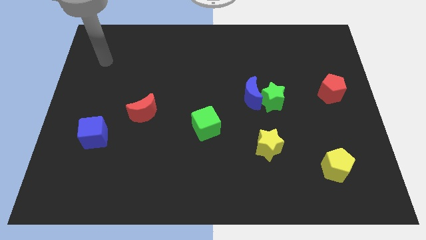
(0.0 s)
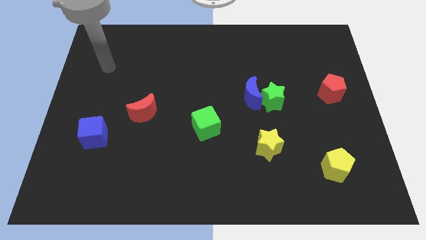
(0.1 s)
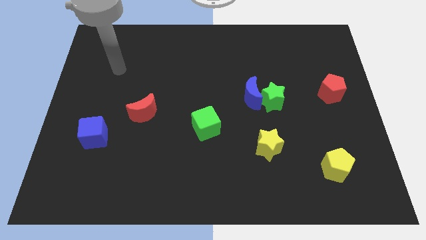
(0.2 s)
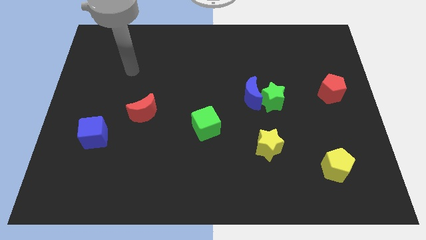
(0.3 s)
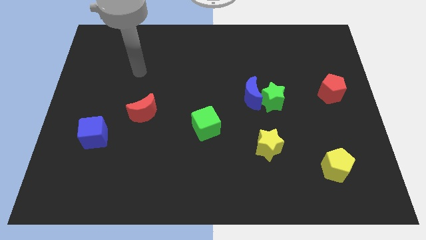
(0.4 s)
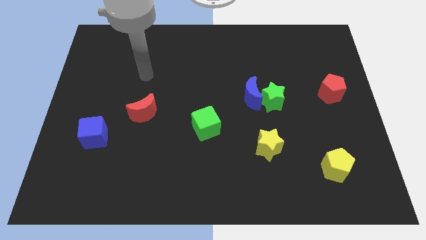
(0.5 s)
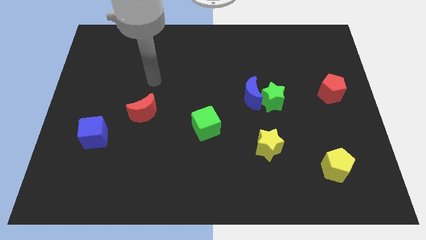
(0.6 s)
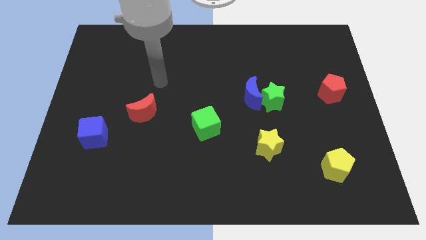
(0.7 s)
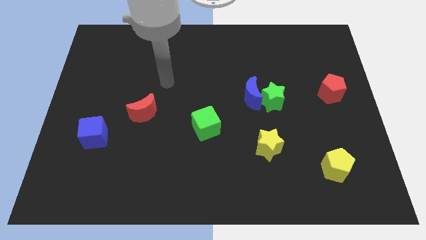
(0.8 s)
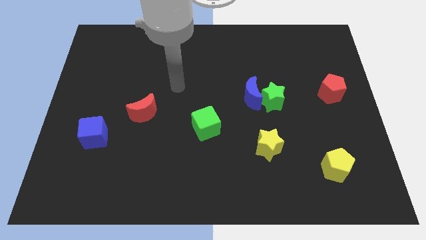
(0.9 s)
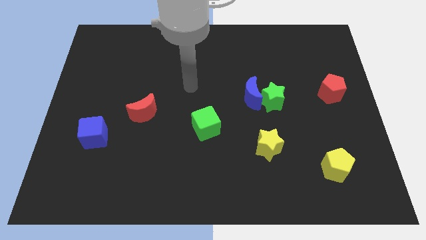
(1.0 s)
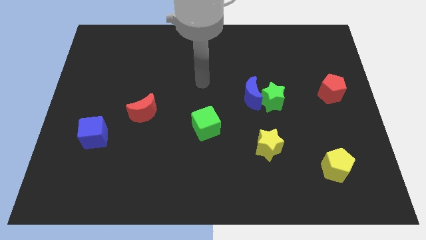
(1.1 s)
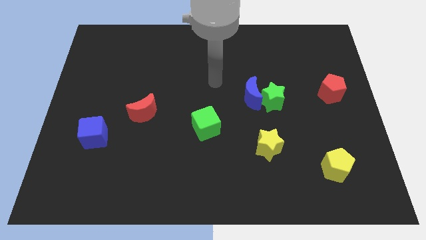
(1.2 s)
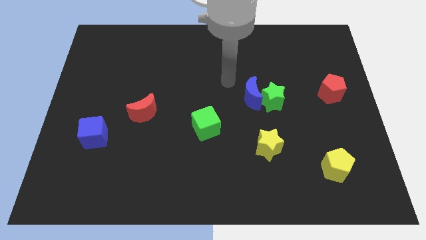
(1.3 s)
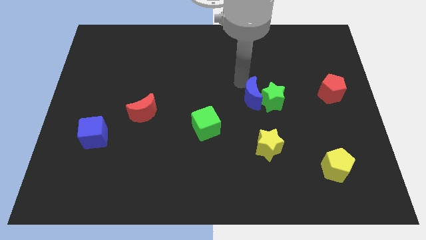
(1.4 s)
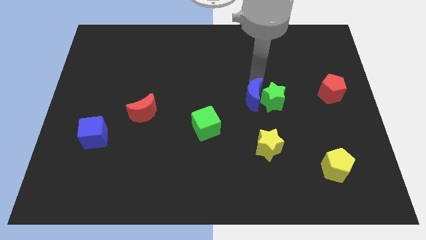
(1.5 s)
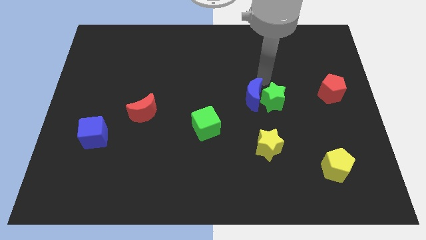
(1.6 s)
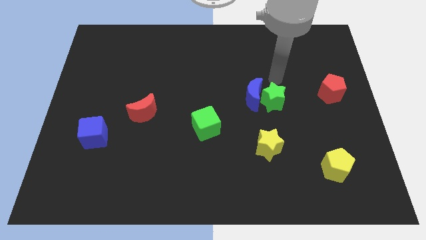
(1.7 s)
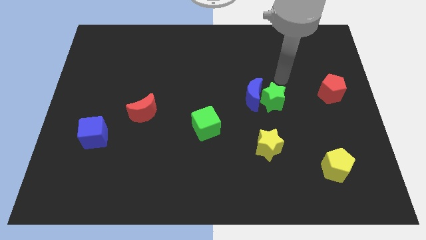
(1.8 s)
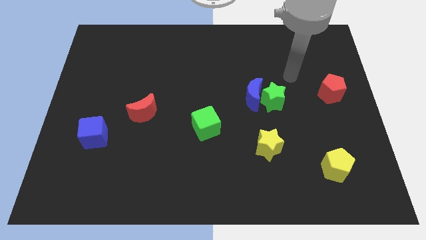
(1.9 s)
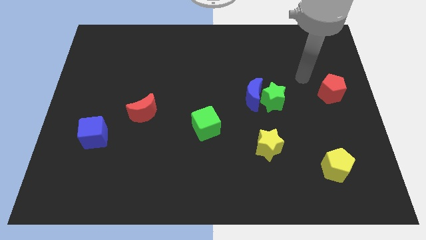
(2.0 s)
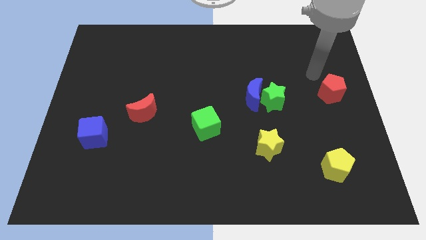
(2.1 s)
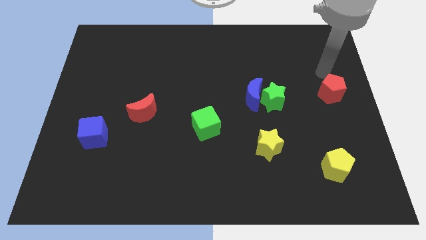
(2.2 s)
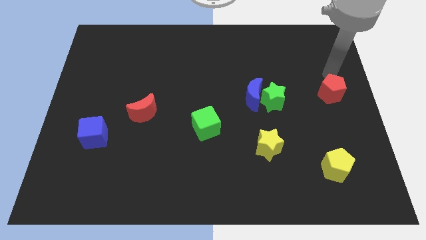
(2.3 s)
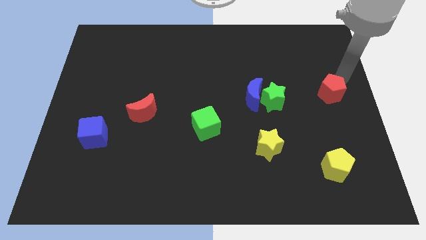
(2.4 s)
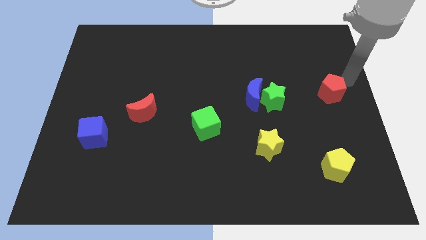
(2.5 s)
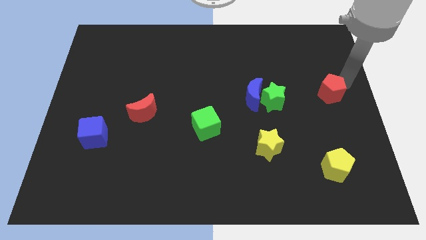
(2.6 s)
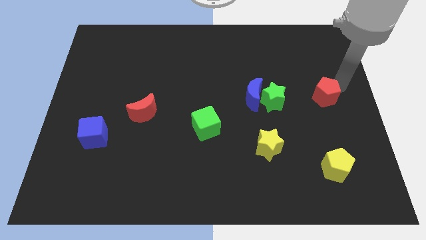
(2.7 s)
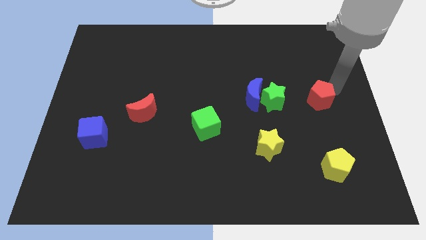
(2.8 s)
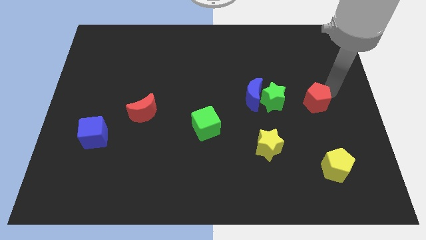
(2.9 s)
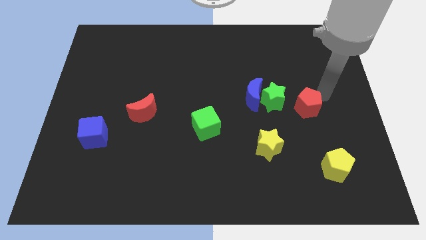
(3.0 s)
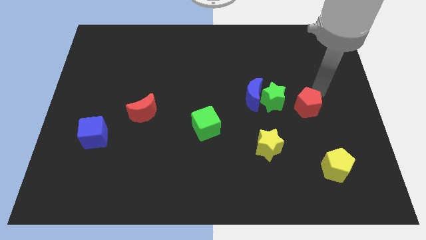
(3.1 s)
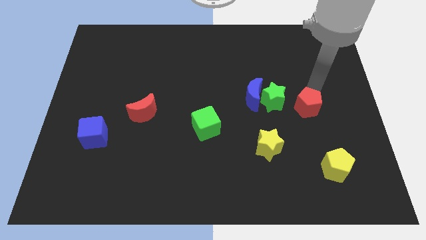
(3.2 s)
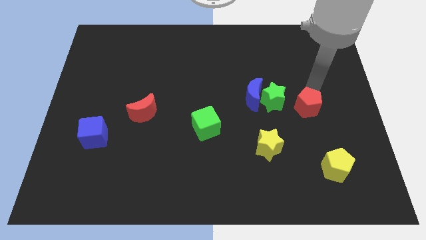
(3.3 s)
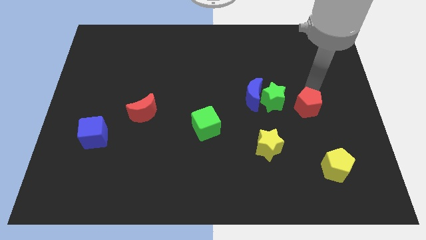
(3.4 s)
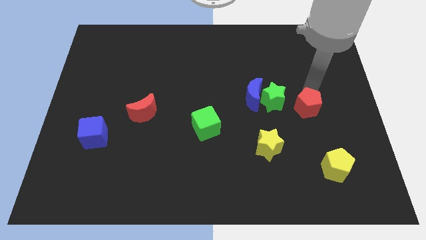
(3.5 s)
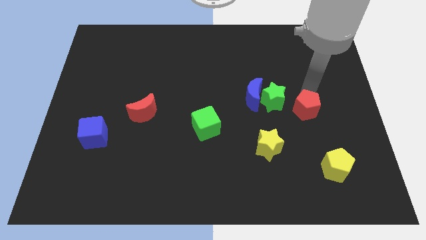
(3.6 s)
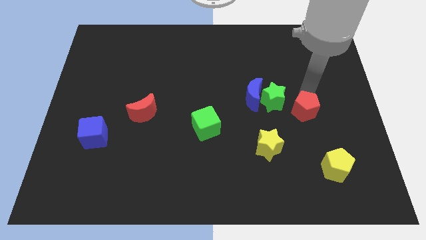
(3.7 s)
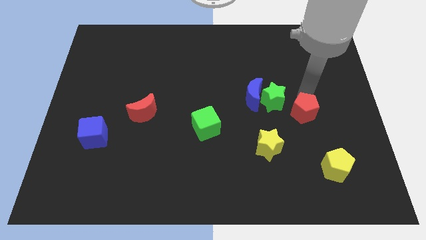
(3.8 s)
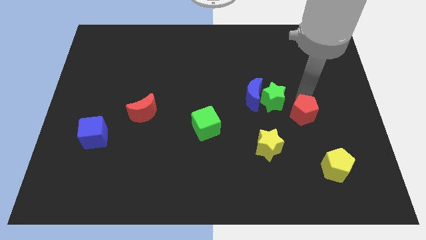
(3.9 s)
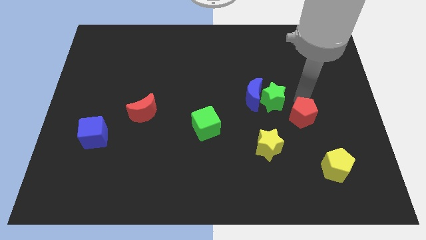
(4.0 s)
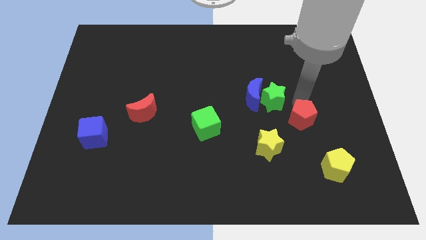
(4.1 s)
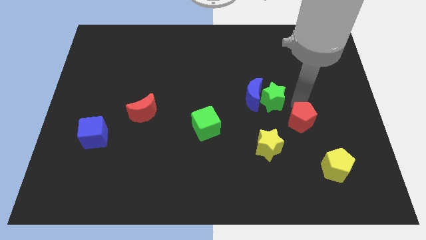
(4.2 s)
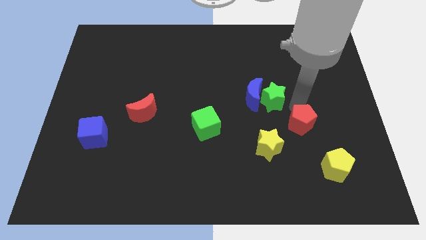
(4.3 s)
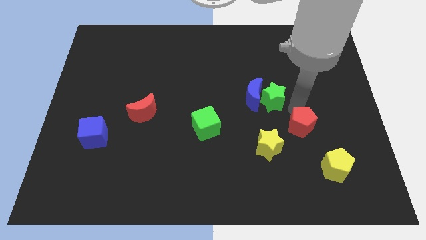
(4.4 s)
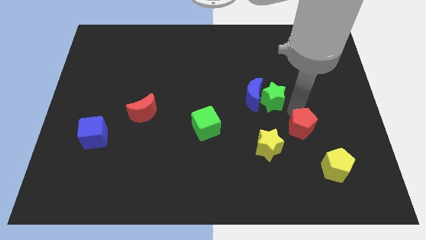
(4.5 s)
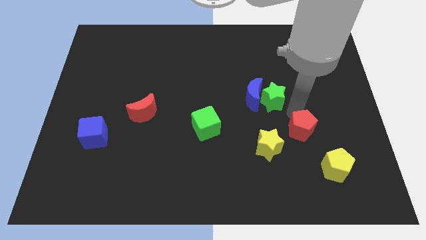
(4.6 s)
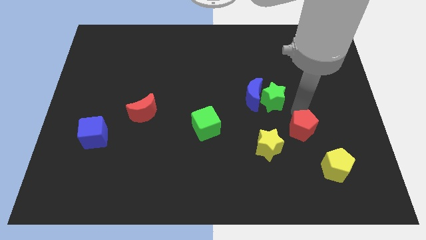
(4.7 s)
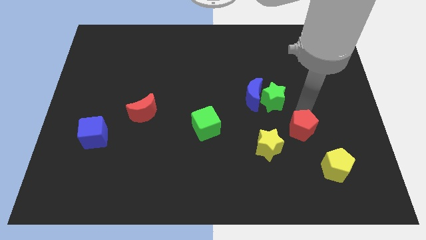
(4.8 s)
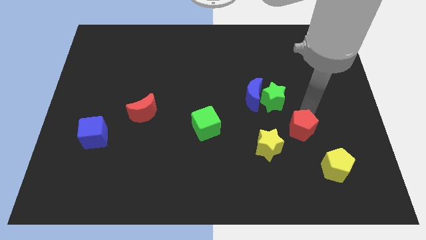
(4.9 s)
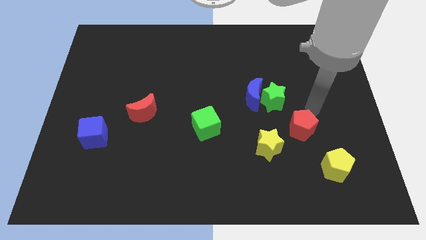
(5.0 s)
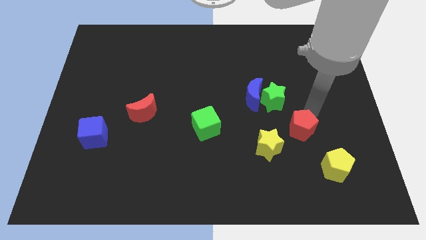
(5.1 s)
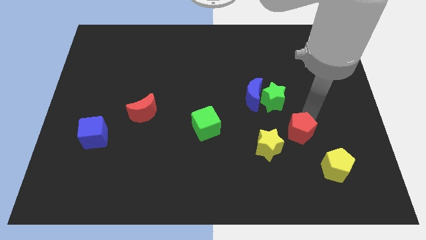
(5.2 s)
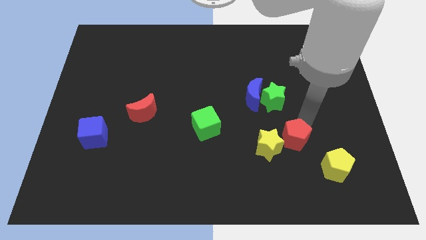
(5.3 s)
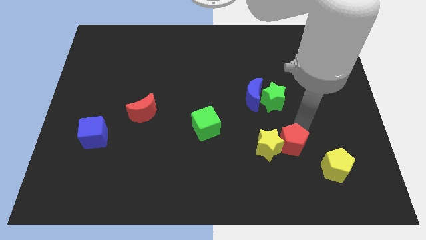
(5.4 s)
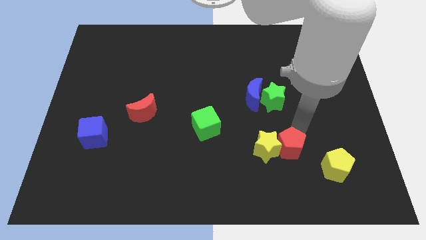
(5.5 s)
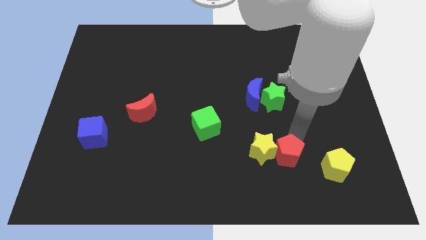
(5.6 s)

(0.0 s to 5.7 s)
move the red pentagon down and then left

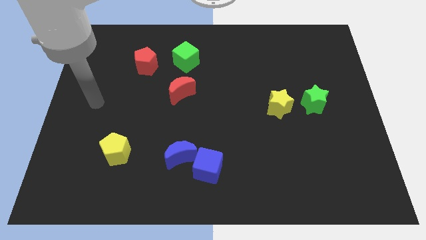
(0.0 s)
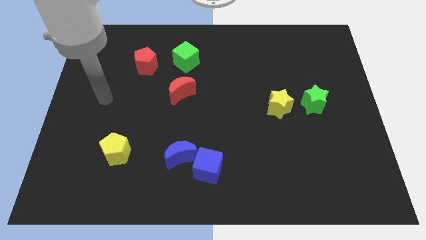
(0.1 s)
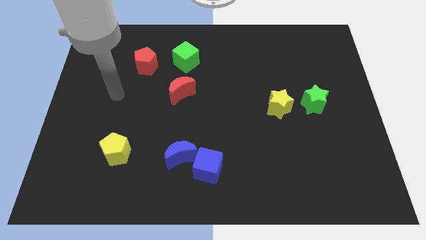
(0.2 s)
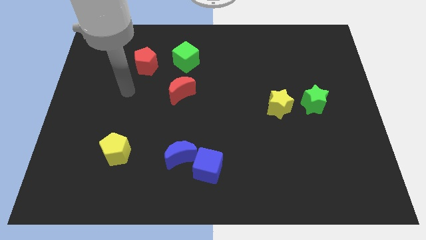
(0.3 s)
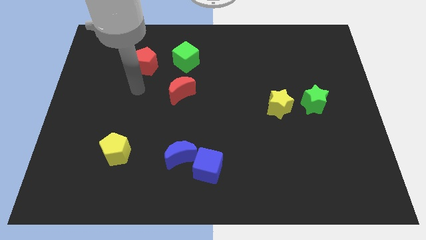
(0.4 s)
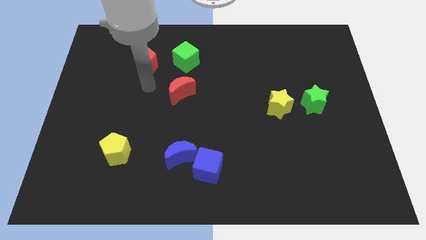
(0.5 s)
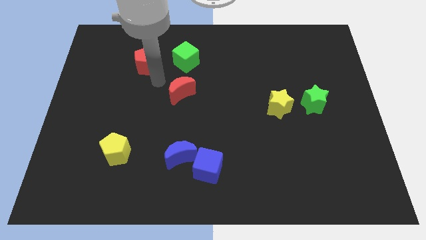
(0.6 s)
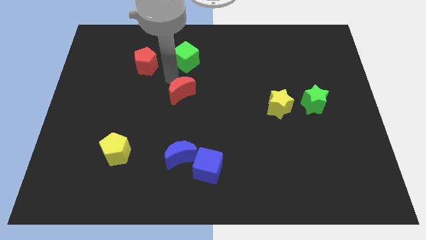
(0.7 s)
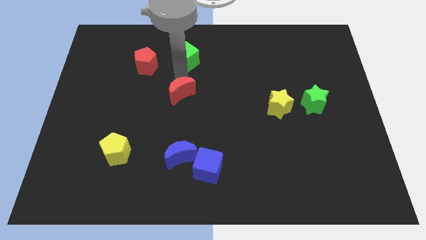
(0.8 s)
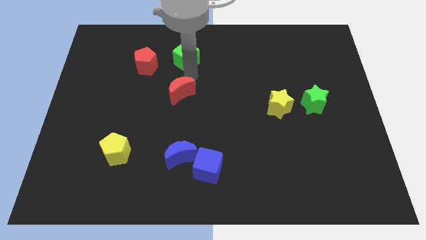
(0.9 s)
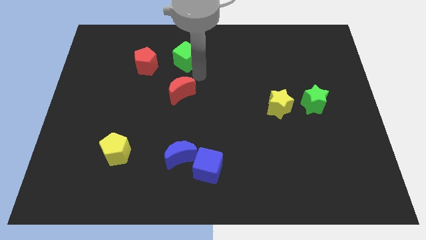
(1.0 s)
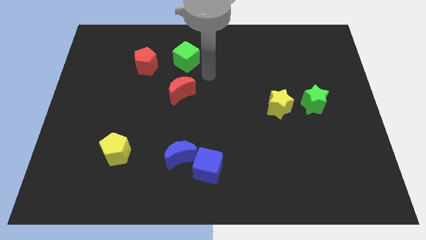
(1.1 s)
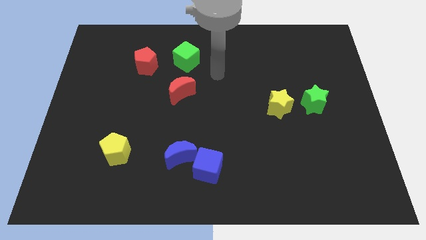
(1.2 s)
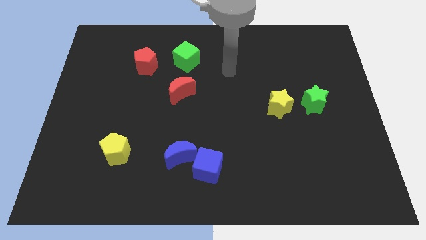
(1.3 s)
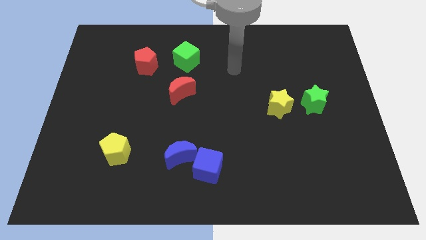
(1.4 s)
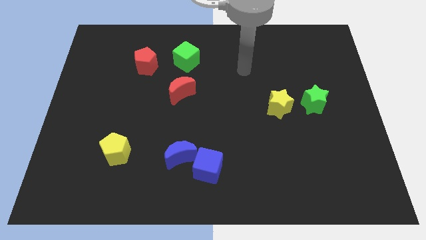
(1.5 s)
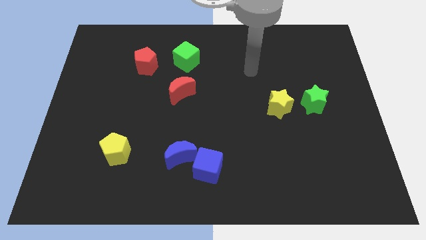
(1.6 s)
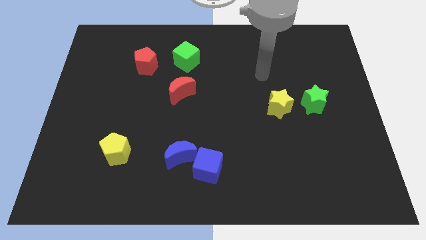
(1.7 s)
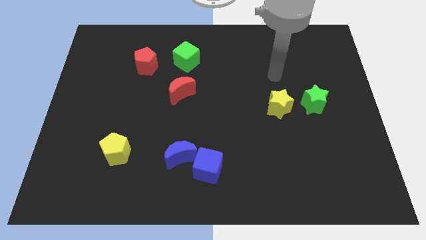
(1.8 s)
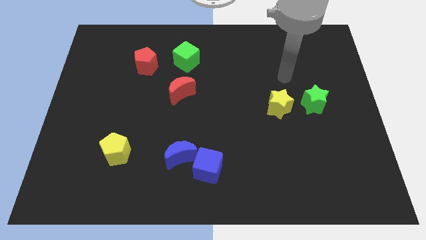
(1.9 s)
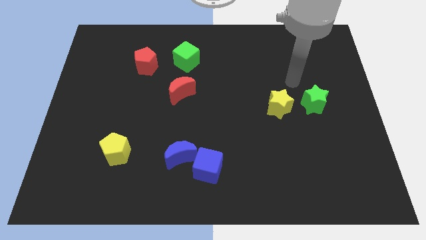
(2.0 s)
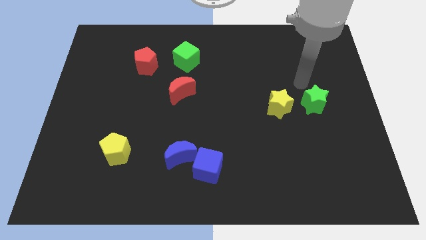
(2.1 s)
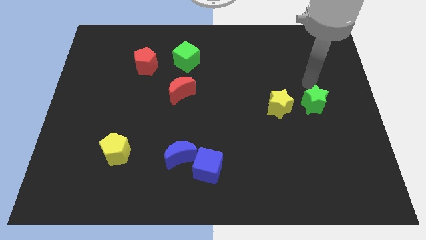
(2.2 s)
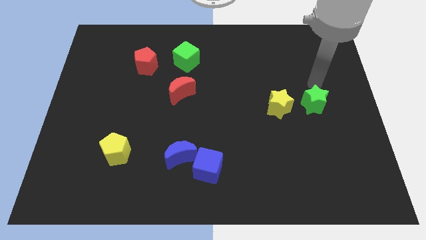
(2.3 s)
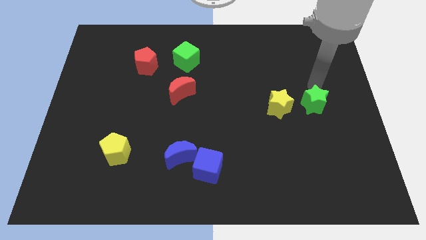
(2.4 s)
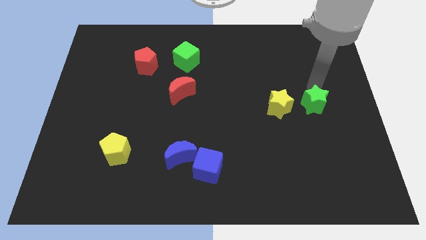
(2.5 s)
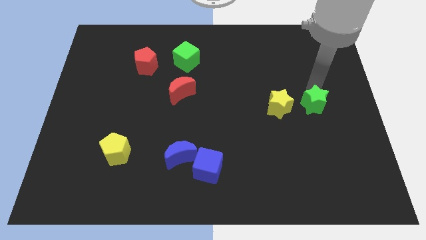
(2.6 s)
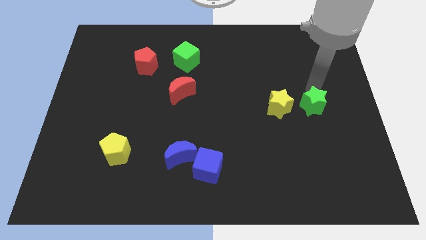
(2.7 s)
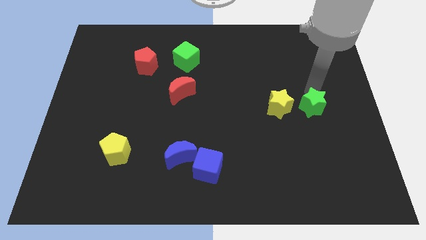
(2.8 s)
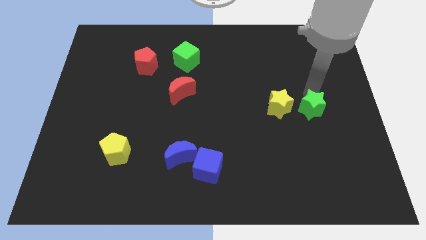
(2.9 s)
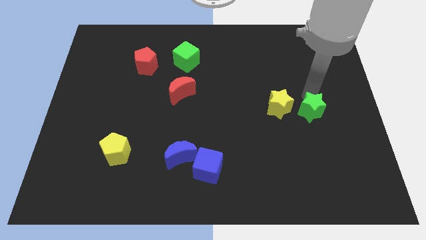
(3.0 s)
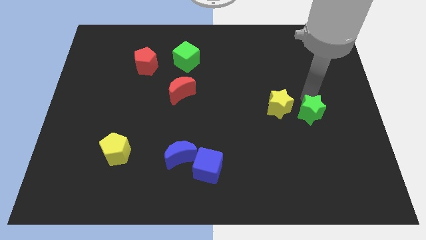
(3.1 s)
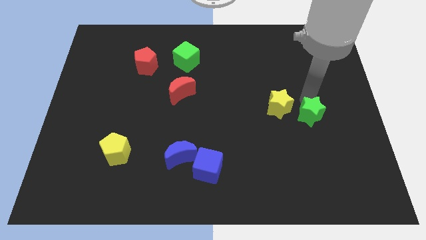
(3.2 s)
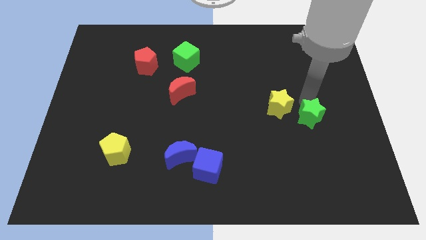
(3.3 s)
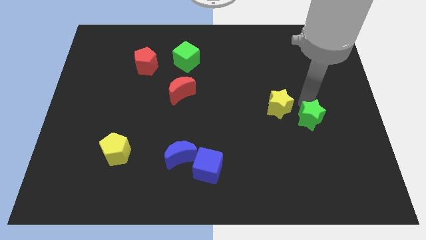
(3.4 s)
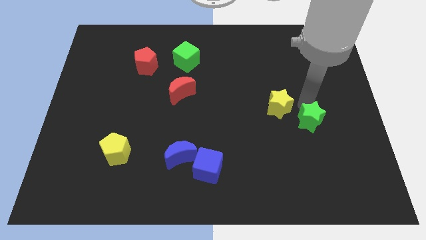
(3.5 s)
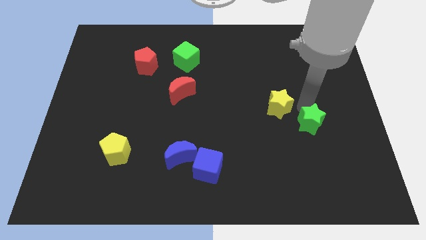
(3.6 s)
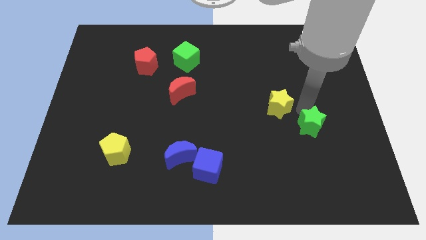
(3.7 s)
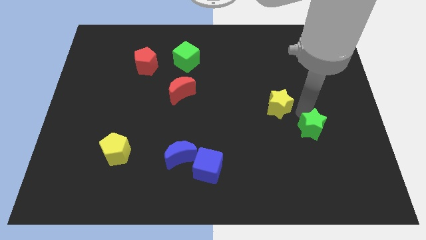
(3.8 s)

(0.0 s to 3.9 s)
move the green star downwards somewhat
